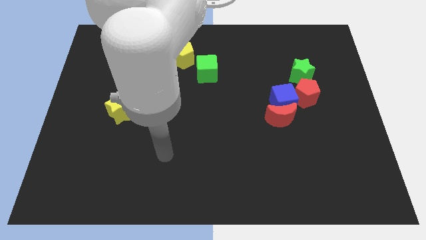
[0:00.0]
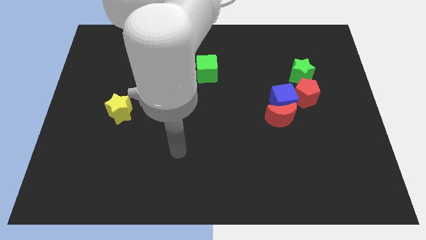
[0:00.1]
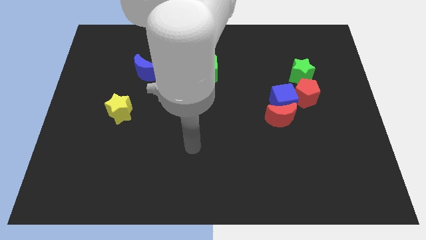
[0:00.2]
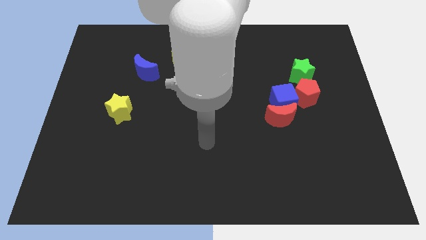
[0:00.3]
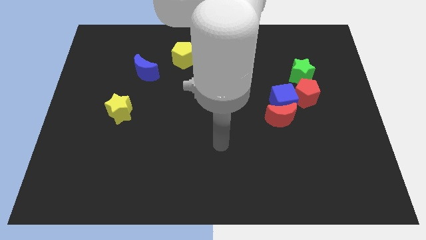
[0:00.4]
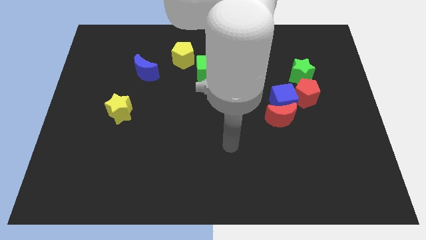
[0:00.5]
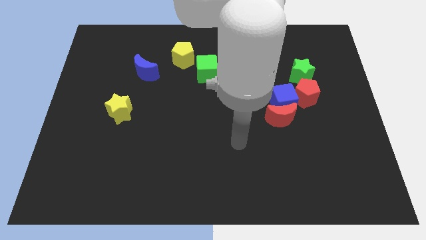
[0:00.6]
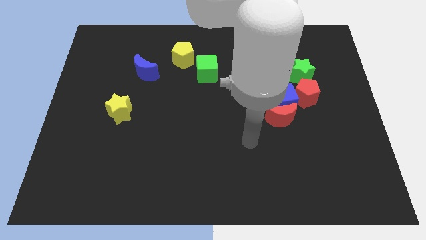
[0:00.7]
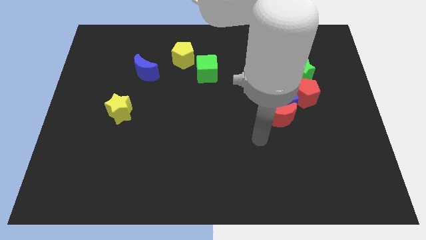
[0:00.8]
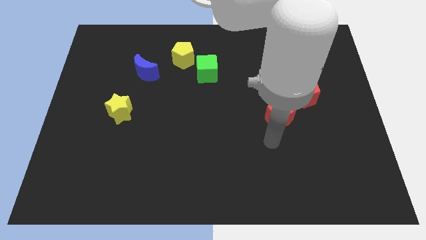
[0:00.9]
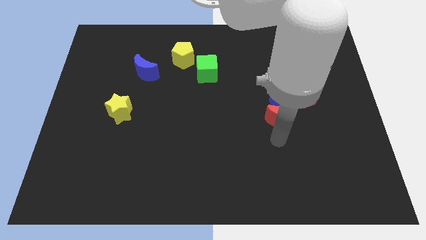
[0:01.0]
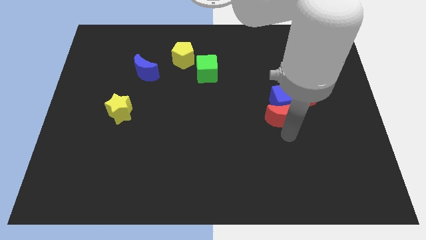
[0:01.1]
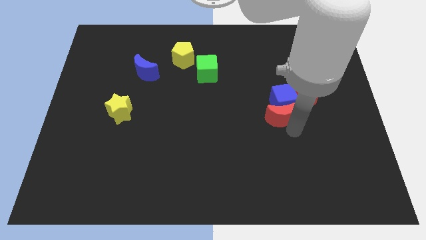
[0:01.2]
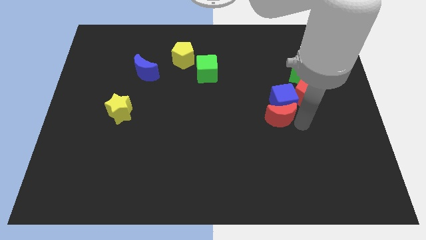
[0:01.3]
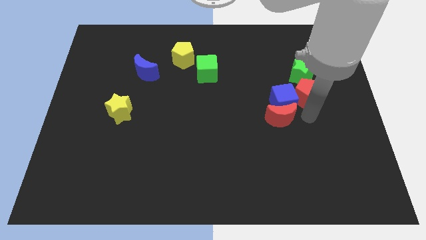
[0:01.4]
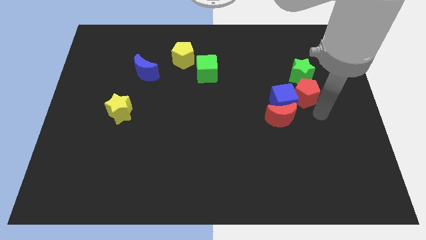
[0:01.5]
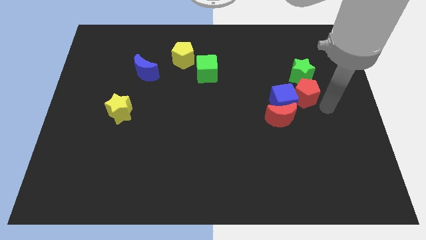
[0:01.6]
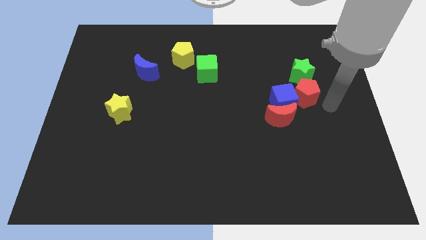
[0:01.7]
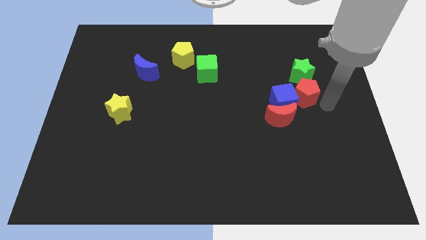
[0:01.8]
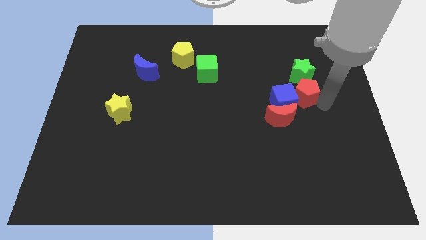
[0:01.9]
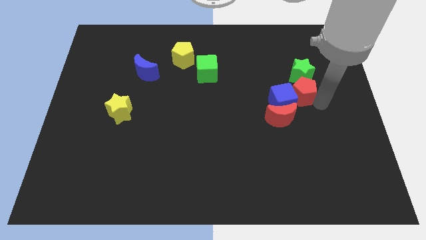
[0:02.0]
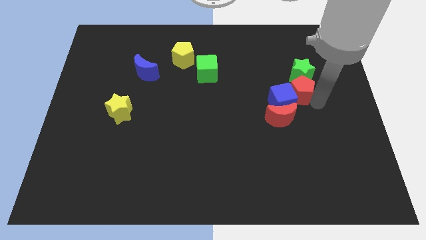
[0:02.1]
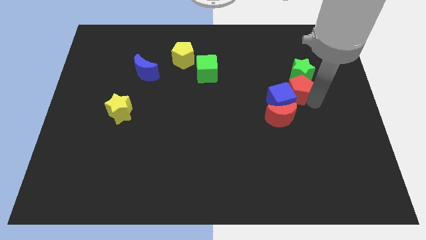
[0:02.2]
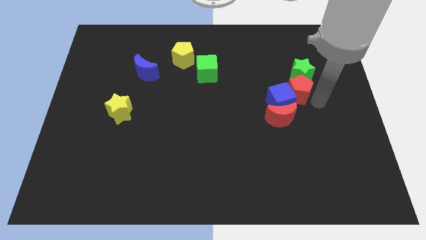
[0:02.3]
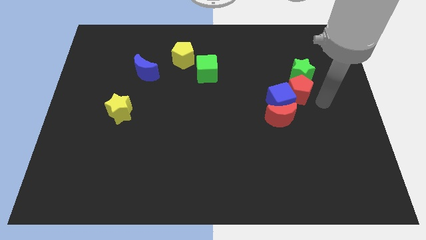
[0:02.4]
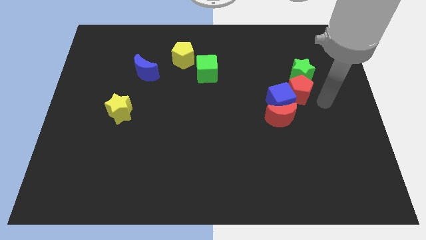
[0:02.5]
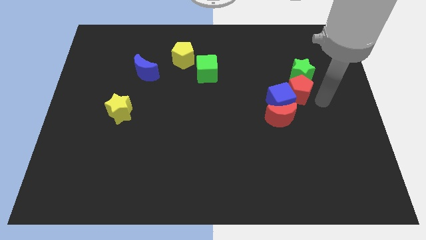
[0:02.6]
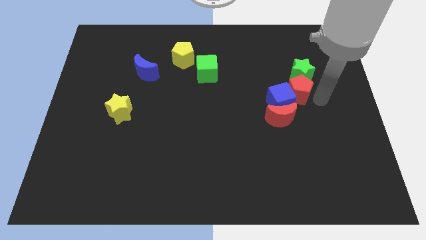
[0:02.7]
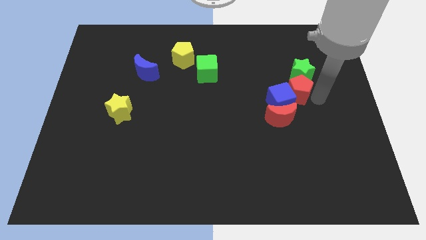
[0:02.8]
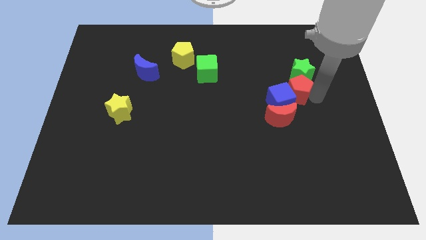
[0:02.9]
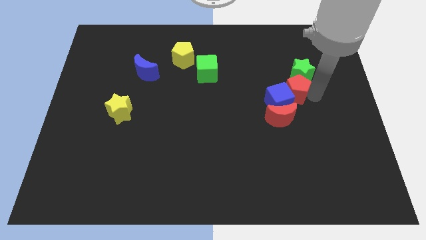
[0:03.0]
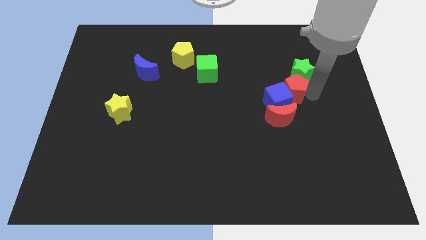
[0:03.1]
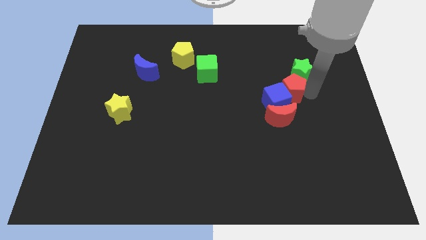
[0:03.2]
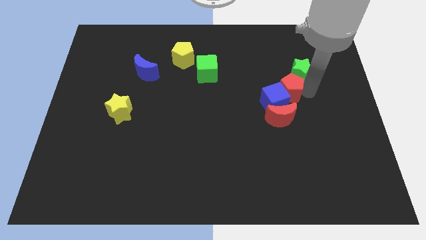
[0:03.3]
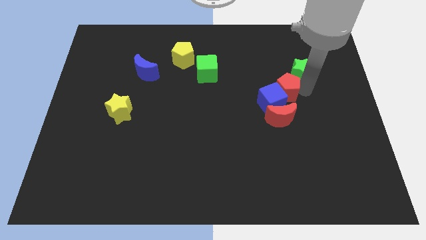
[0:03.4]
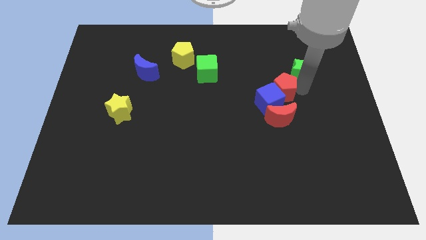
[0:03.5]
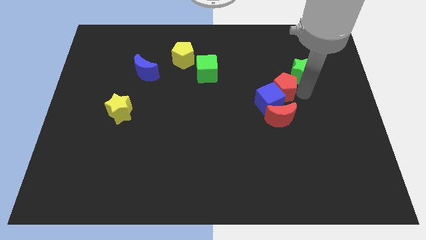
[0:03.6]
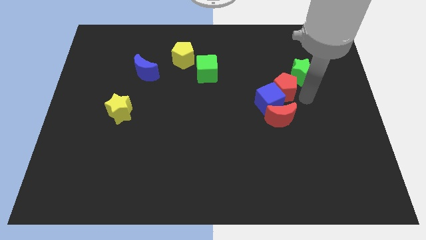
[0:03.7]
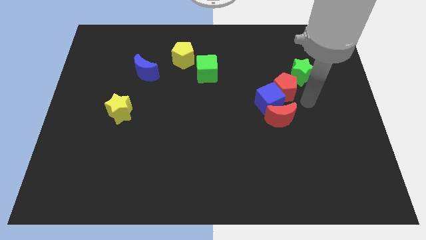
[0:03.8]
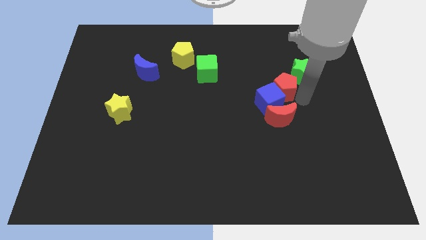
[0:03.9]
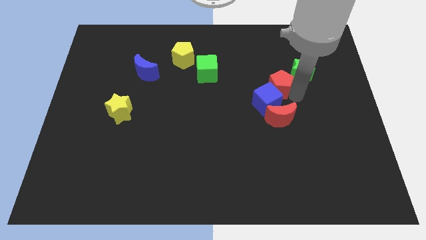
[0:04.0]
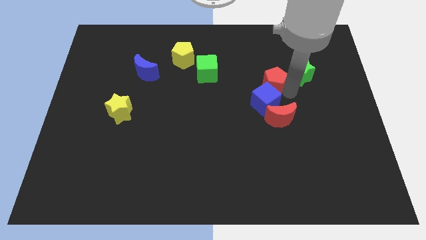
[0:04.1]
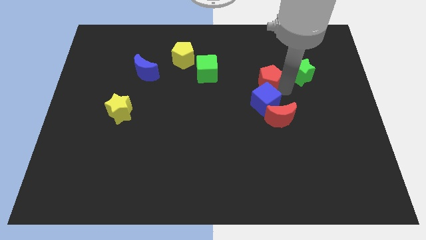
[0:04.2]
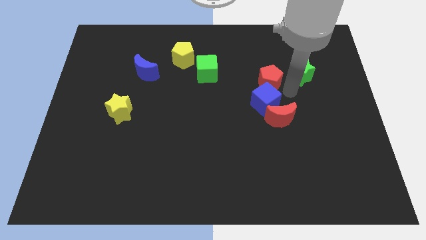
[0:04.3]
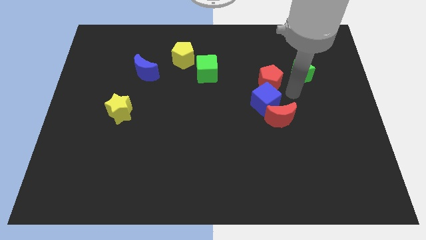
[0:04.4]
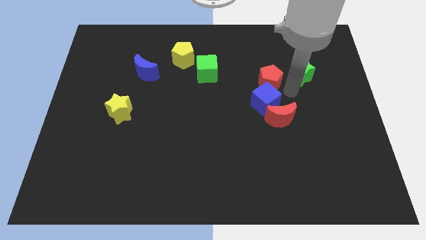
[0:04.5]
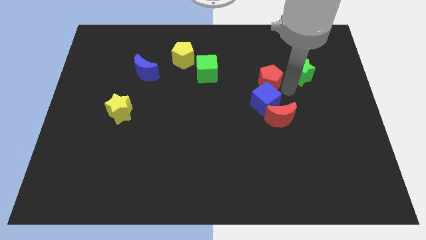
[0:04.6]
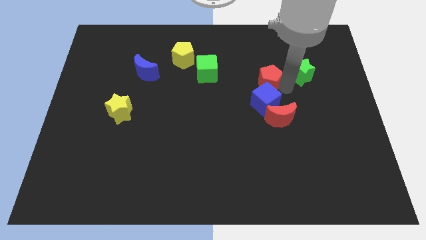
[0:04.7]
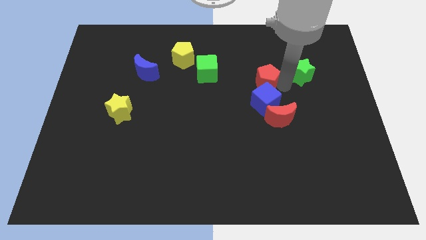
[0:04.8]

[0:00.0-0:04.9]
put the red pentagon just right of the green cube

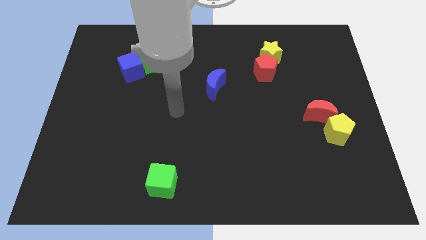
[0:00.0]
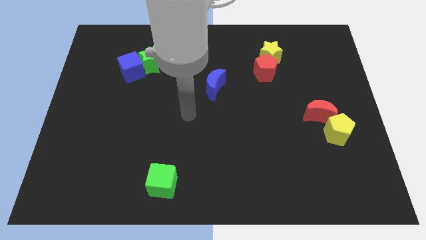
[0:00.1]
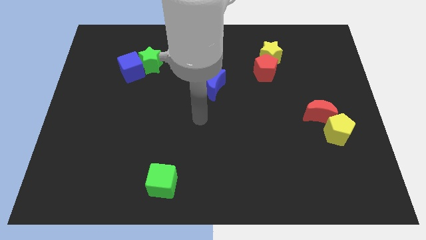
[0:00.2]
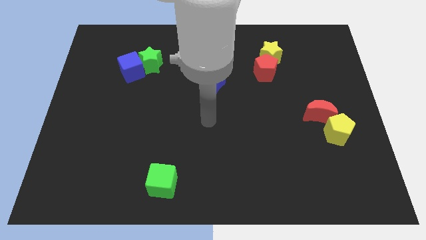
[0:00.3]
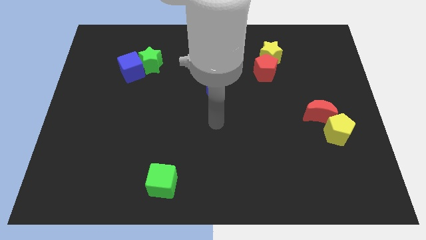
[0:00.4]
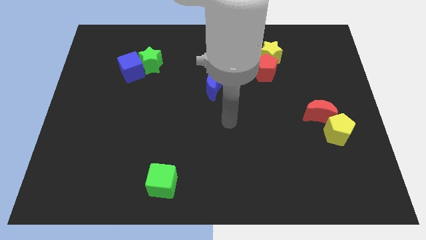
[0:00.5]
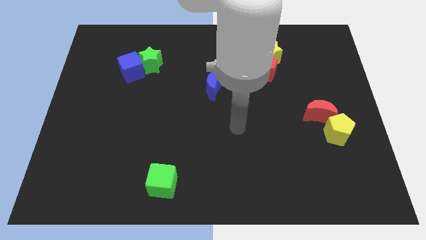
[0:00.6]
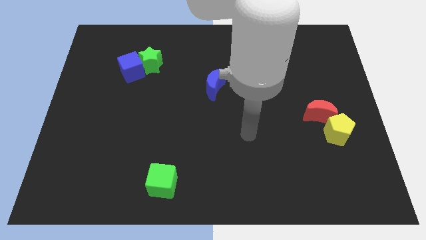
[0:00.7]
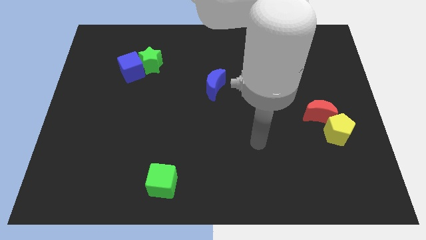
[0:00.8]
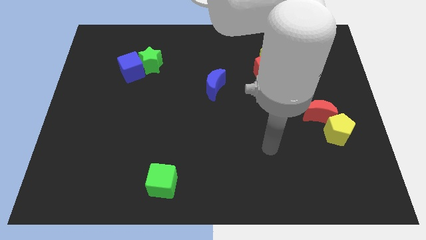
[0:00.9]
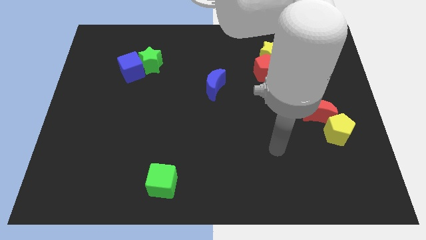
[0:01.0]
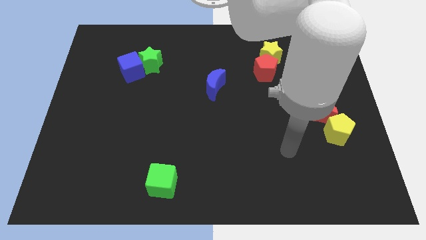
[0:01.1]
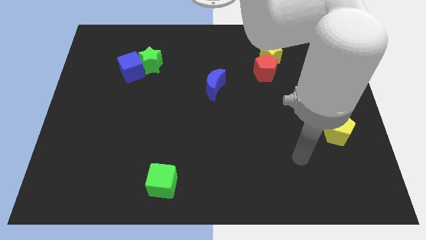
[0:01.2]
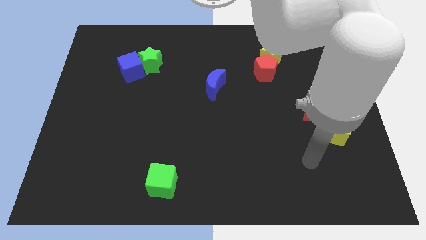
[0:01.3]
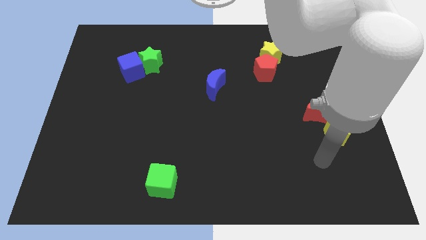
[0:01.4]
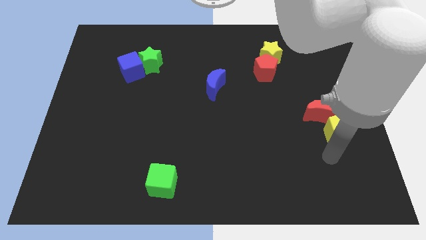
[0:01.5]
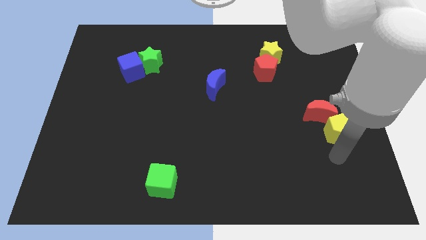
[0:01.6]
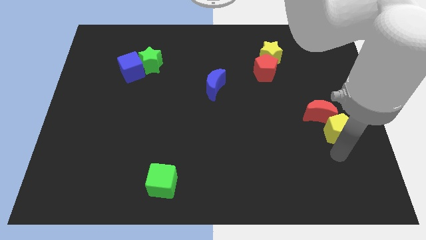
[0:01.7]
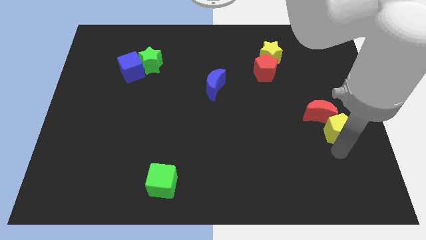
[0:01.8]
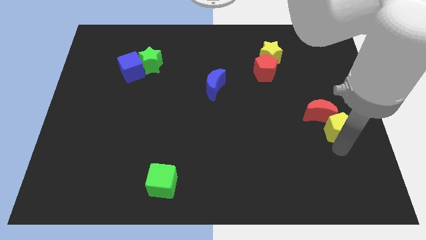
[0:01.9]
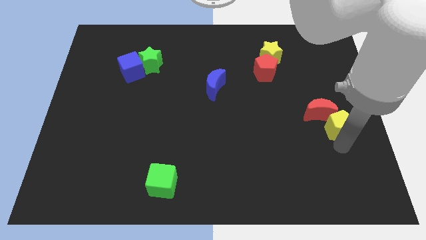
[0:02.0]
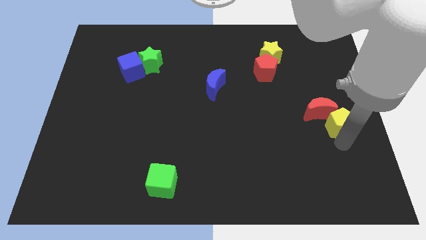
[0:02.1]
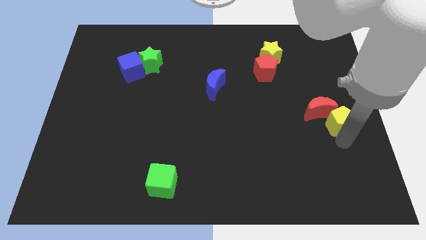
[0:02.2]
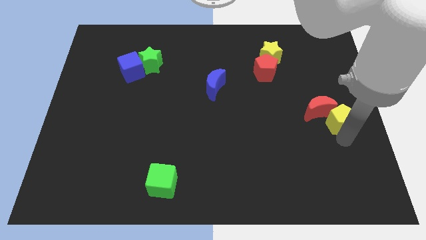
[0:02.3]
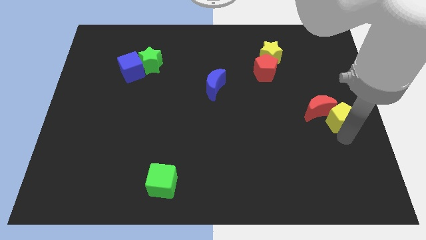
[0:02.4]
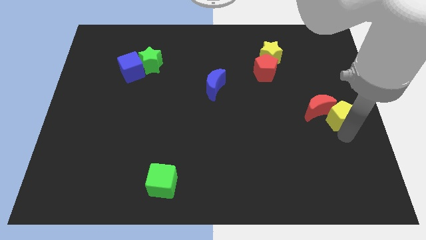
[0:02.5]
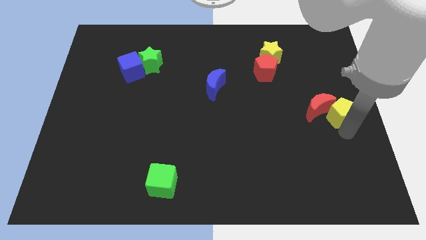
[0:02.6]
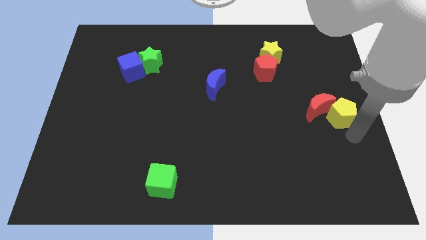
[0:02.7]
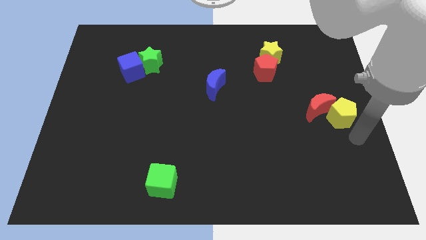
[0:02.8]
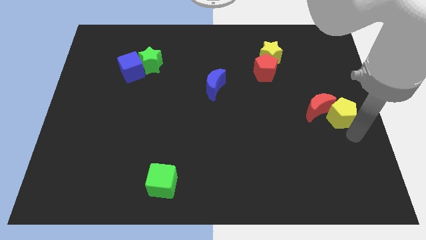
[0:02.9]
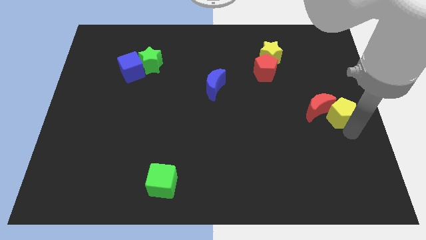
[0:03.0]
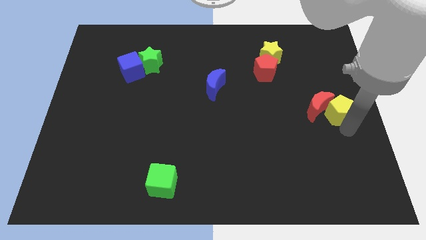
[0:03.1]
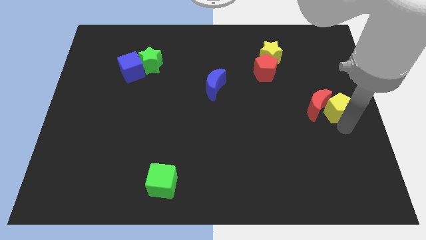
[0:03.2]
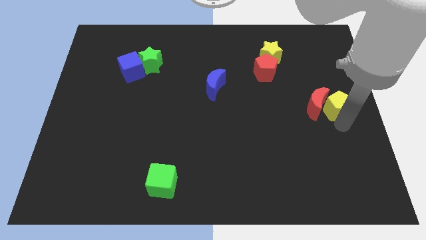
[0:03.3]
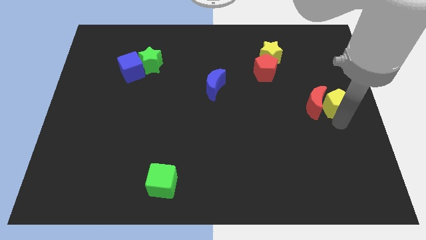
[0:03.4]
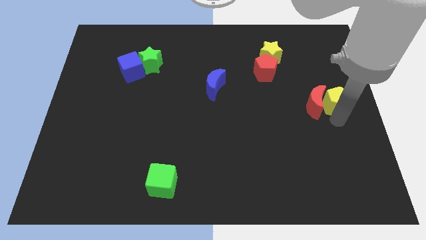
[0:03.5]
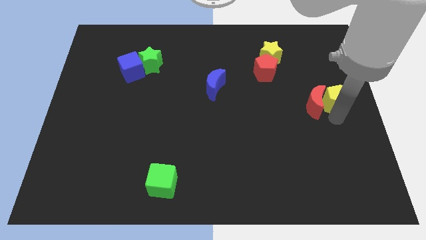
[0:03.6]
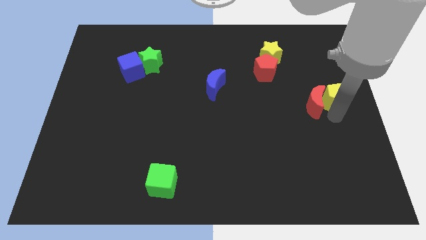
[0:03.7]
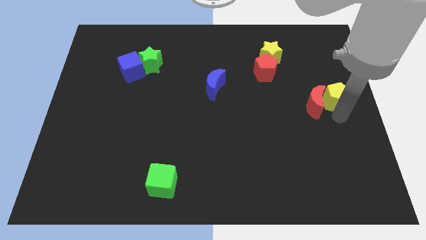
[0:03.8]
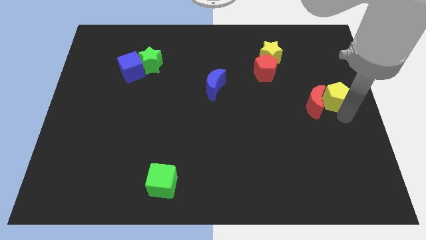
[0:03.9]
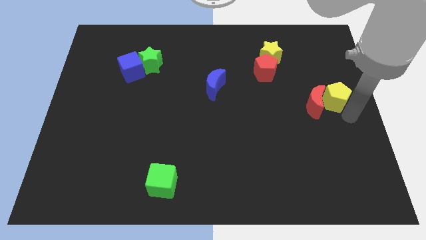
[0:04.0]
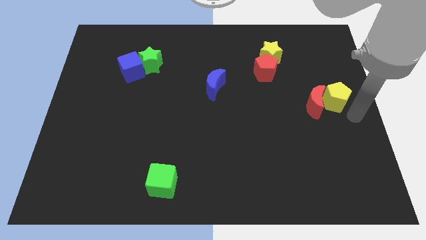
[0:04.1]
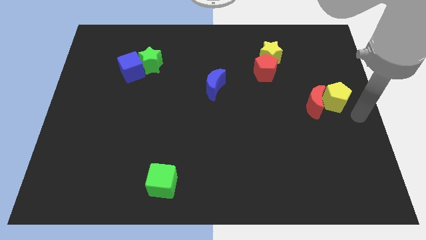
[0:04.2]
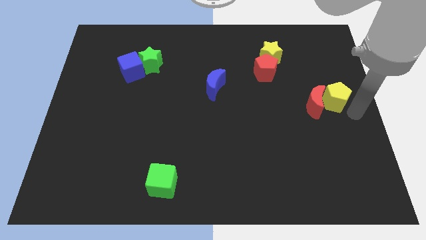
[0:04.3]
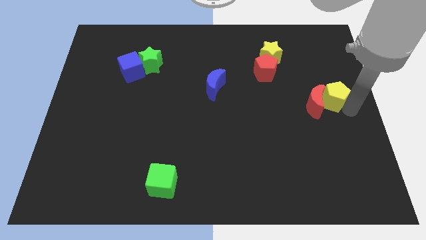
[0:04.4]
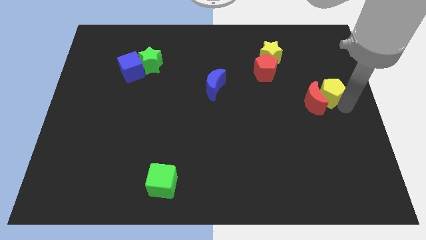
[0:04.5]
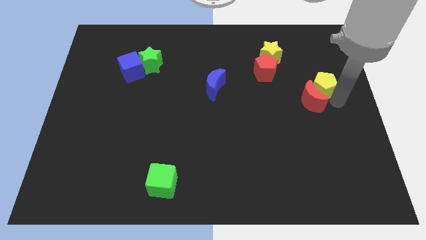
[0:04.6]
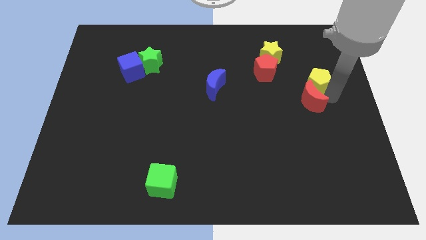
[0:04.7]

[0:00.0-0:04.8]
put the yellow pentagon to the right of the red pentagon
